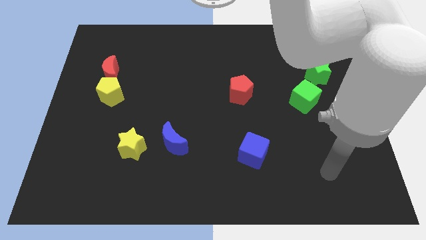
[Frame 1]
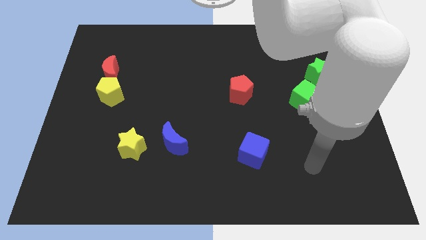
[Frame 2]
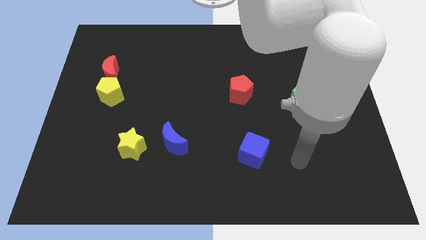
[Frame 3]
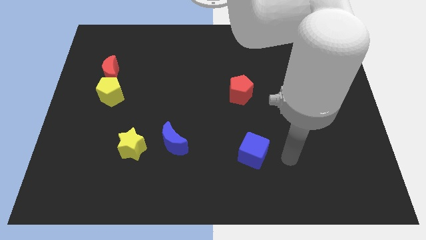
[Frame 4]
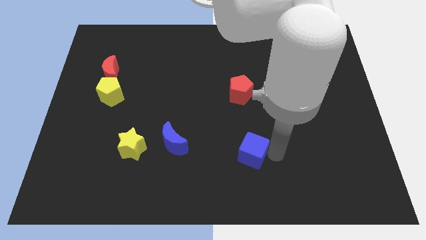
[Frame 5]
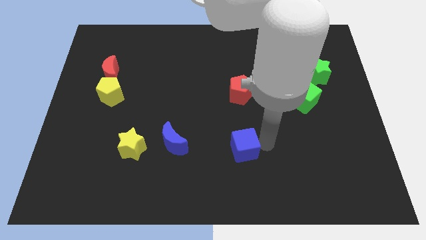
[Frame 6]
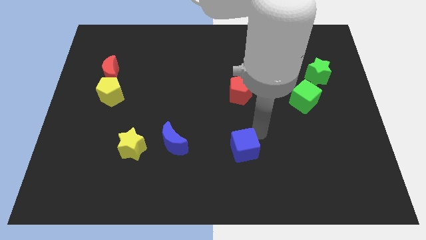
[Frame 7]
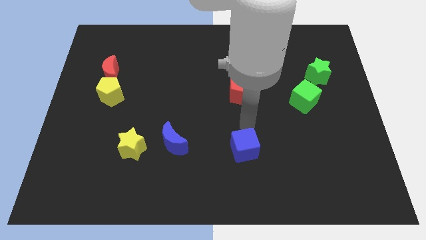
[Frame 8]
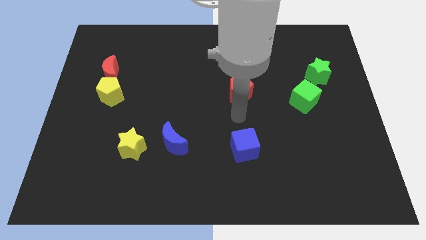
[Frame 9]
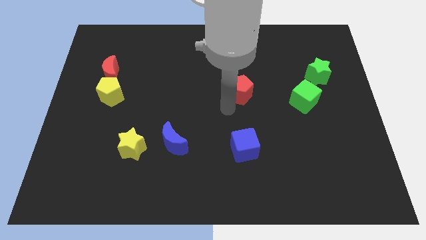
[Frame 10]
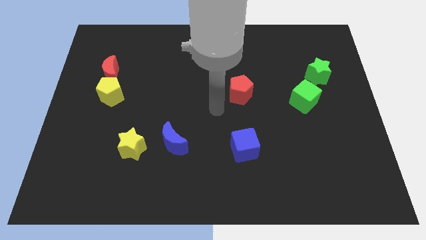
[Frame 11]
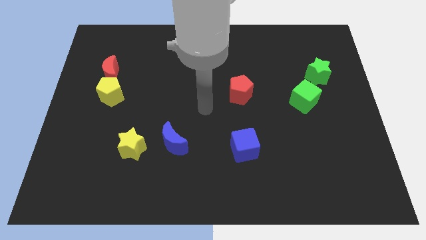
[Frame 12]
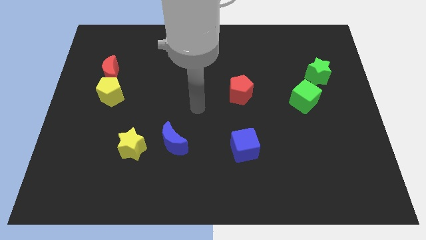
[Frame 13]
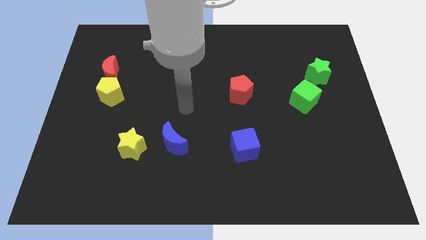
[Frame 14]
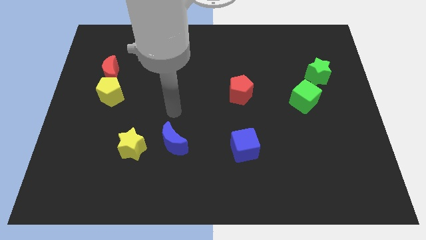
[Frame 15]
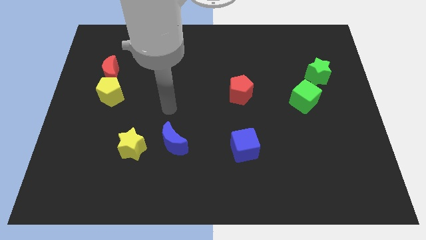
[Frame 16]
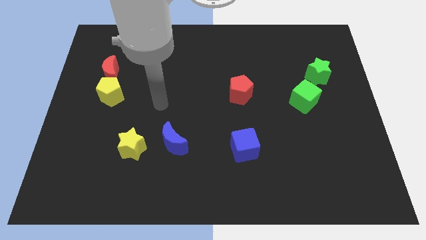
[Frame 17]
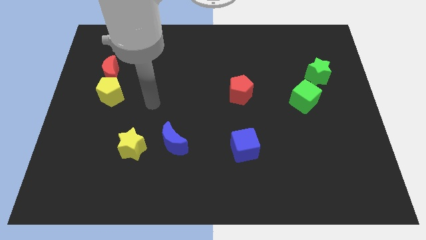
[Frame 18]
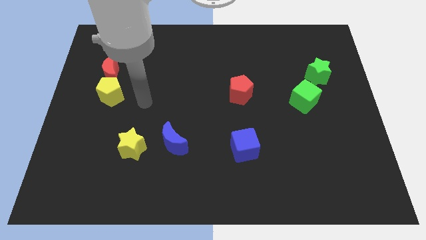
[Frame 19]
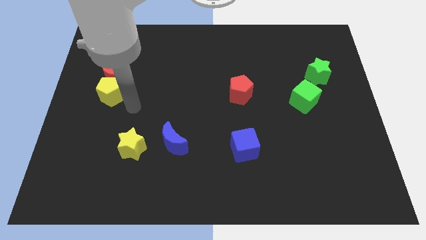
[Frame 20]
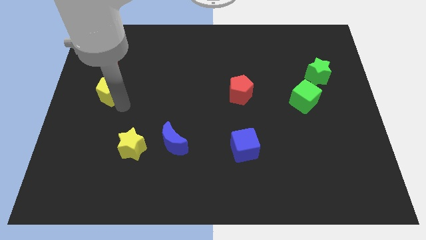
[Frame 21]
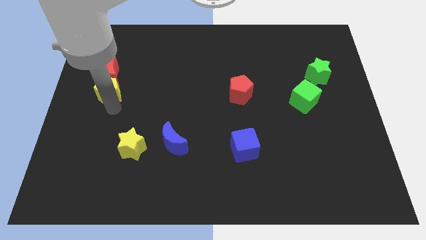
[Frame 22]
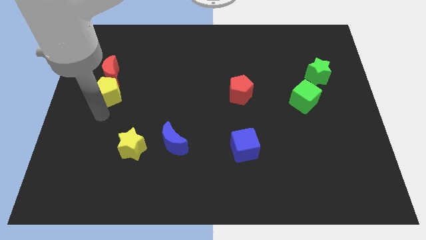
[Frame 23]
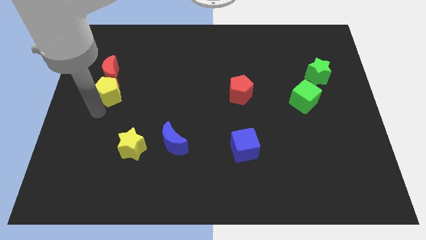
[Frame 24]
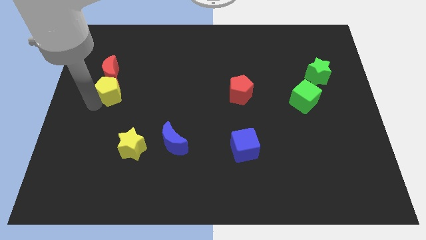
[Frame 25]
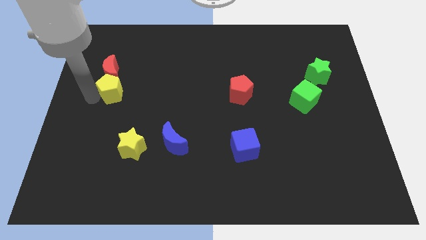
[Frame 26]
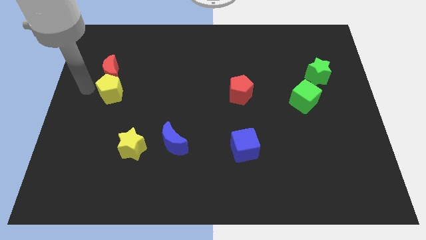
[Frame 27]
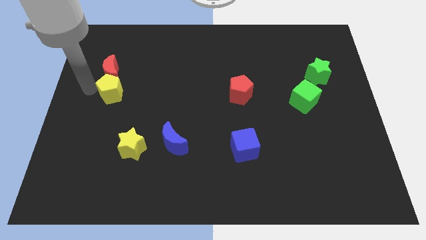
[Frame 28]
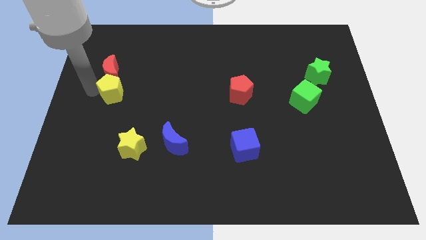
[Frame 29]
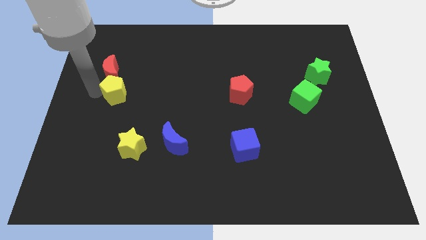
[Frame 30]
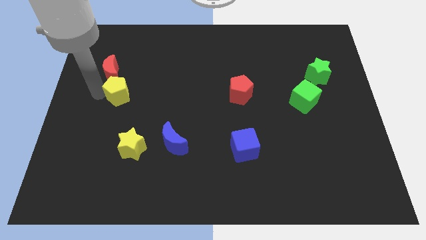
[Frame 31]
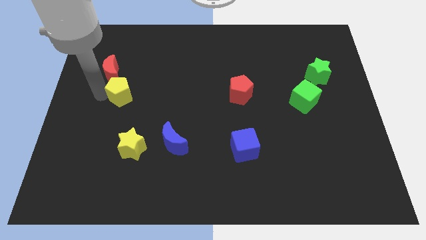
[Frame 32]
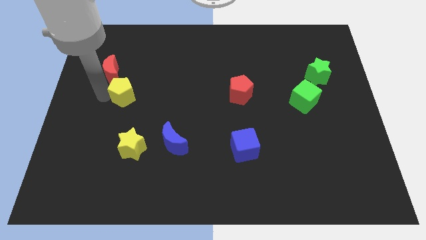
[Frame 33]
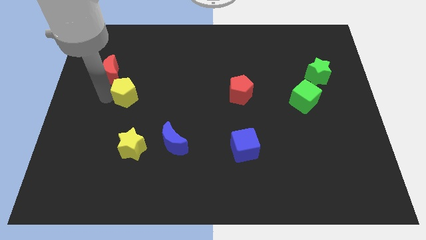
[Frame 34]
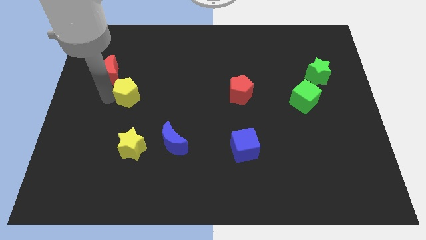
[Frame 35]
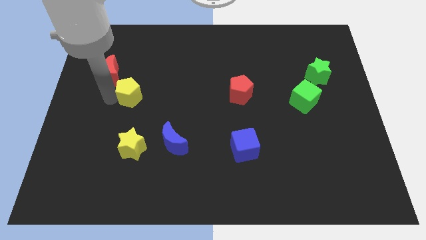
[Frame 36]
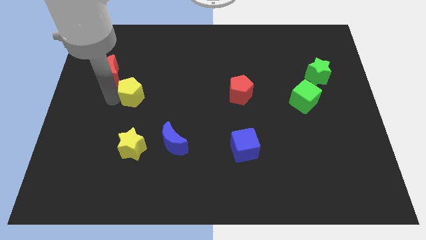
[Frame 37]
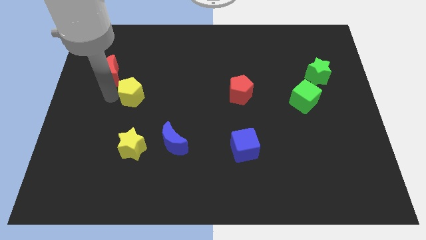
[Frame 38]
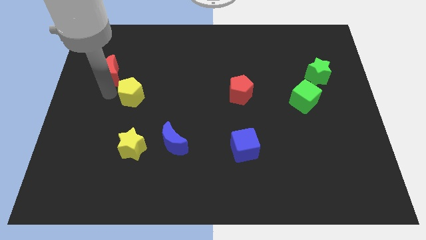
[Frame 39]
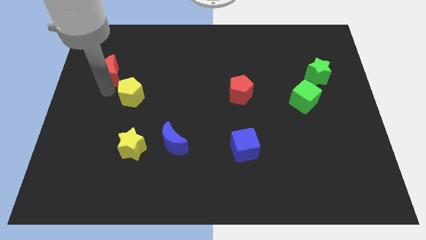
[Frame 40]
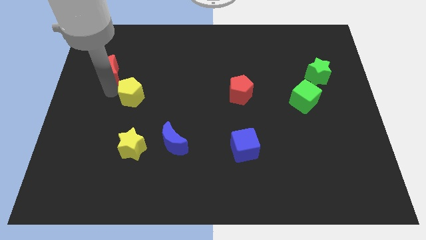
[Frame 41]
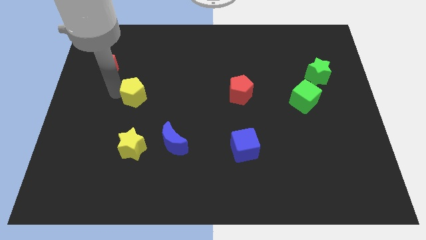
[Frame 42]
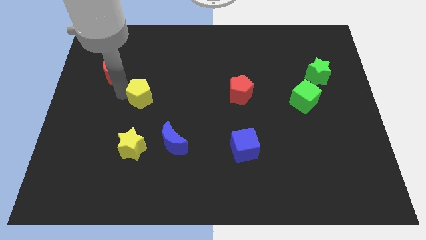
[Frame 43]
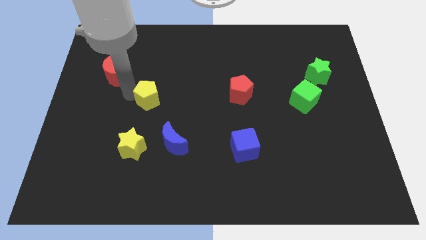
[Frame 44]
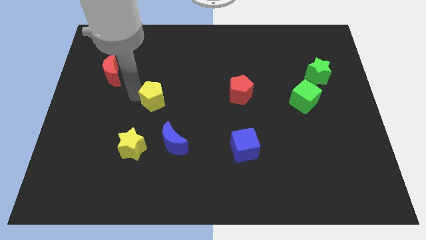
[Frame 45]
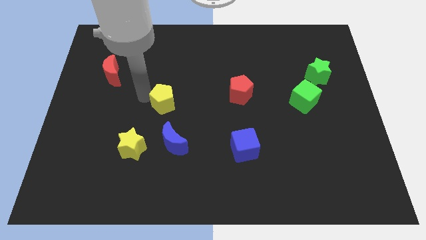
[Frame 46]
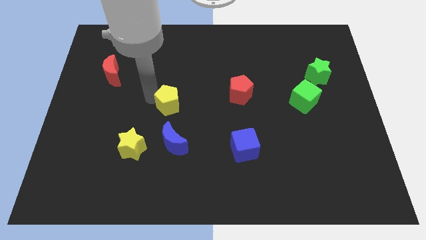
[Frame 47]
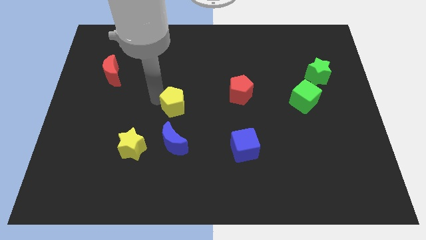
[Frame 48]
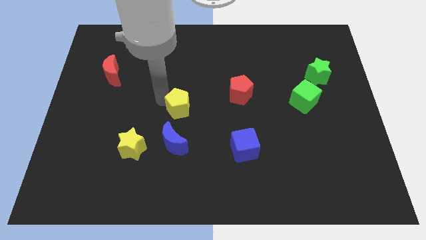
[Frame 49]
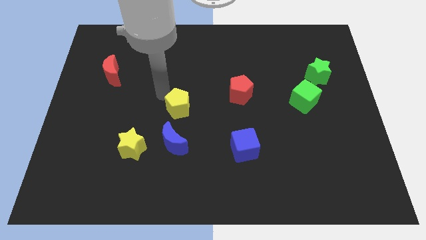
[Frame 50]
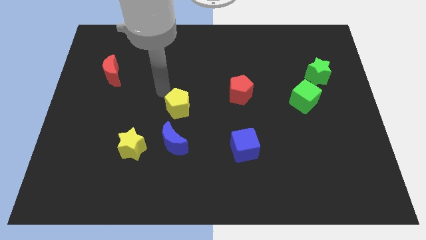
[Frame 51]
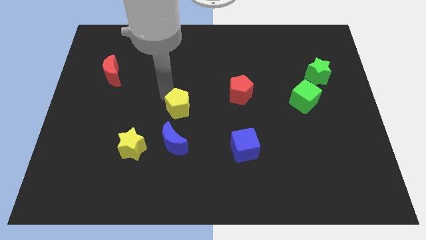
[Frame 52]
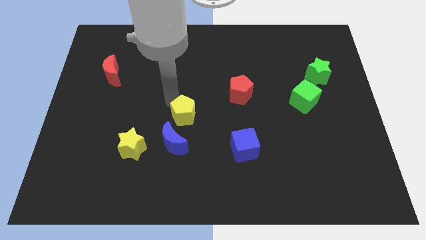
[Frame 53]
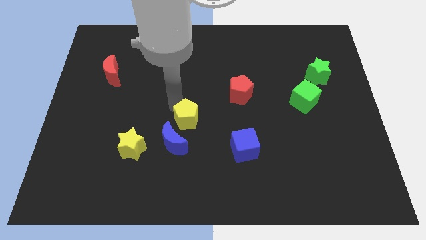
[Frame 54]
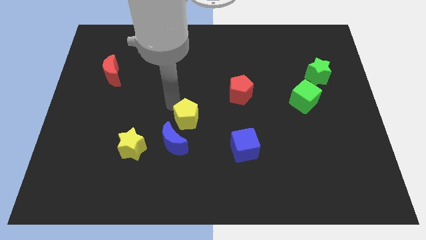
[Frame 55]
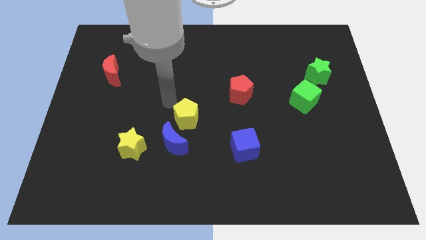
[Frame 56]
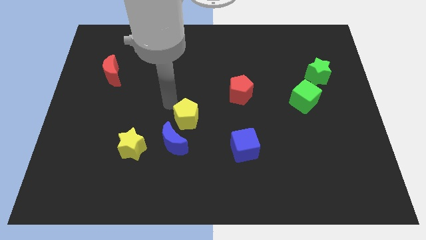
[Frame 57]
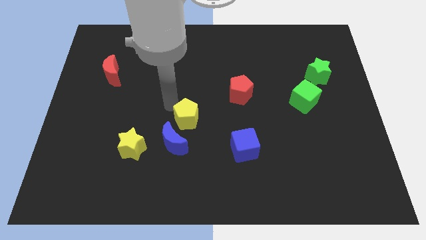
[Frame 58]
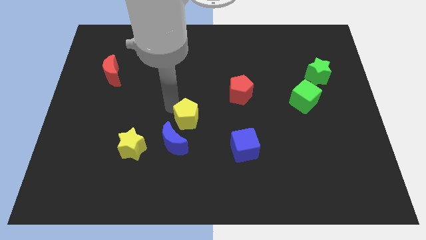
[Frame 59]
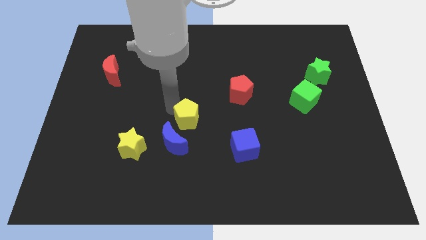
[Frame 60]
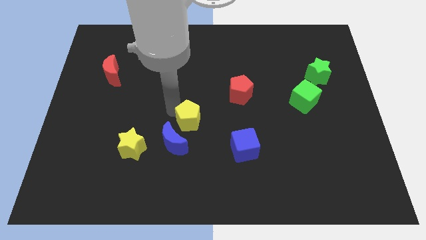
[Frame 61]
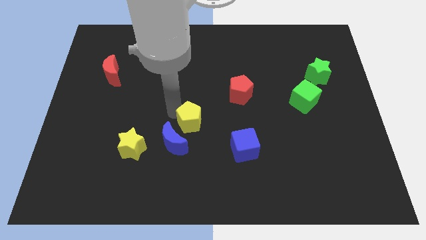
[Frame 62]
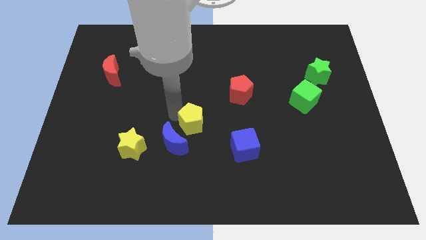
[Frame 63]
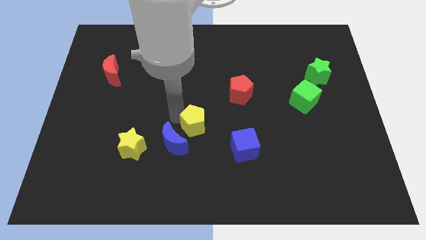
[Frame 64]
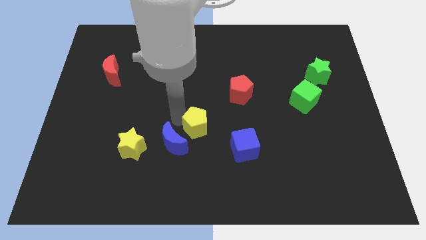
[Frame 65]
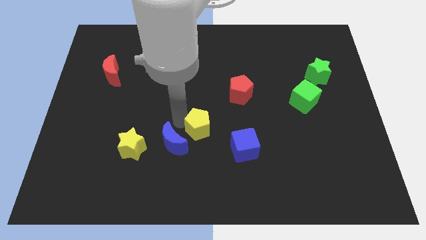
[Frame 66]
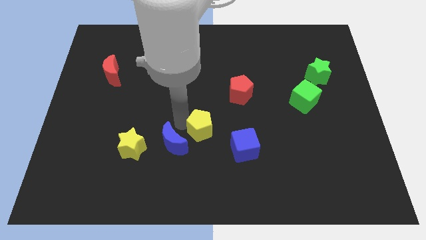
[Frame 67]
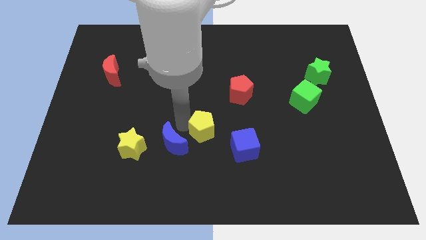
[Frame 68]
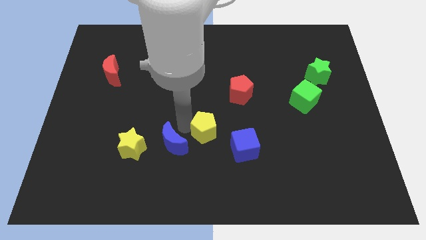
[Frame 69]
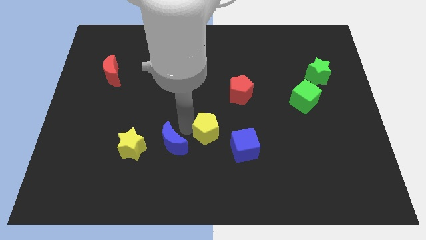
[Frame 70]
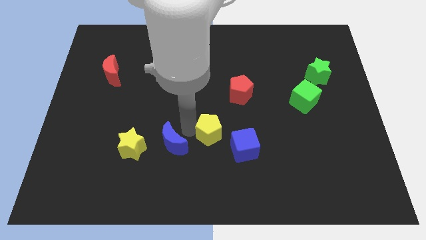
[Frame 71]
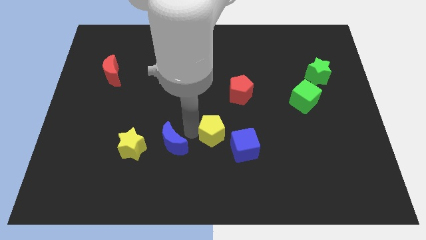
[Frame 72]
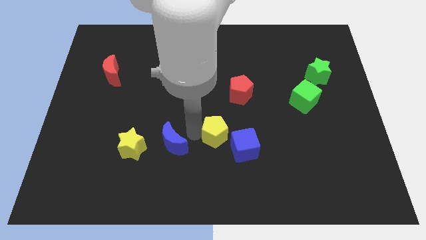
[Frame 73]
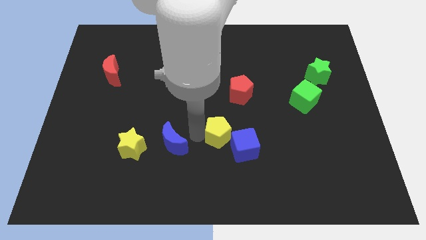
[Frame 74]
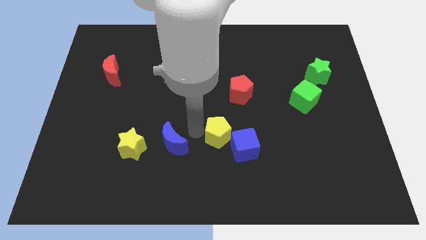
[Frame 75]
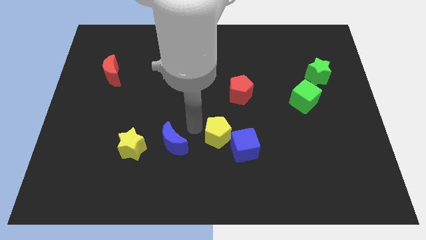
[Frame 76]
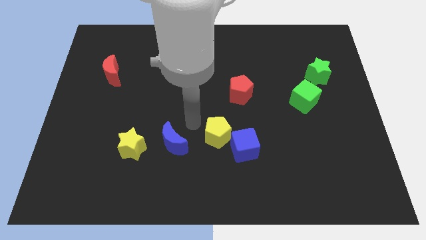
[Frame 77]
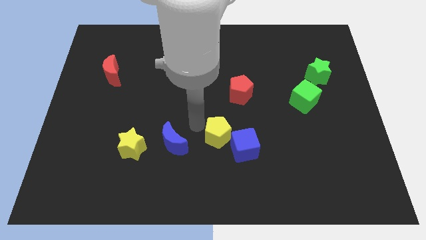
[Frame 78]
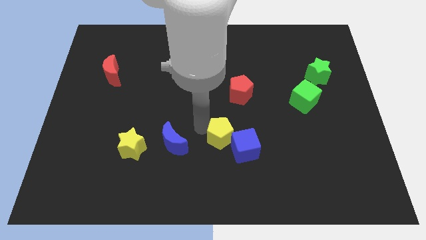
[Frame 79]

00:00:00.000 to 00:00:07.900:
move the yellow pentagon next to the blue cube
